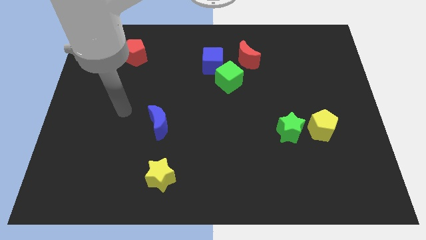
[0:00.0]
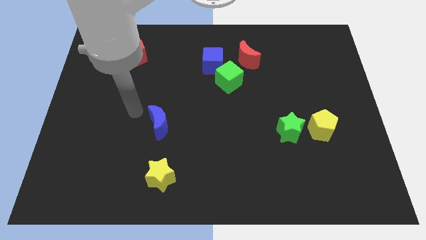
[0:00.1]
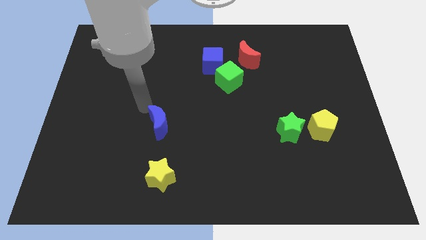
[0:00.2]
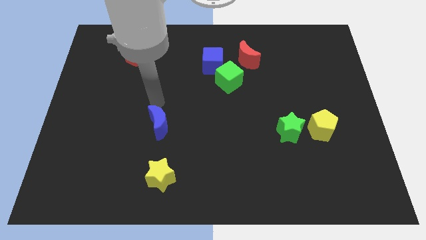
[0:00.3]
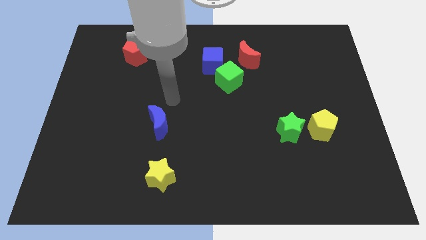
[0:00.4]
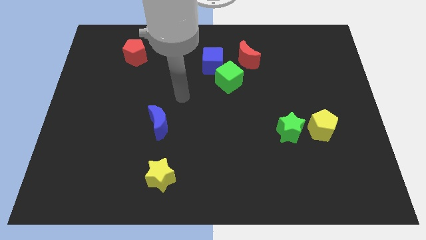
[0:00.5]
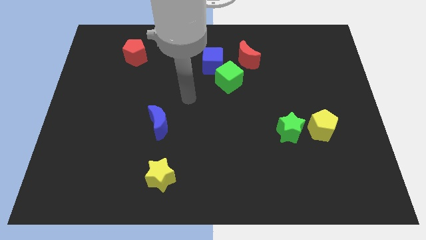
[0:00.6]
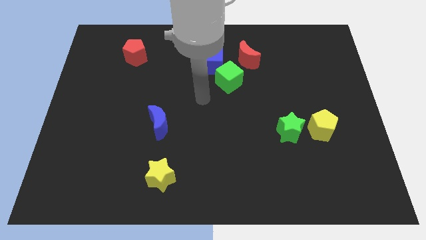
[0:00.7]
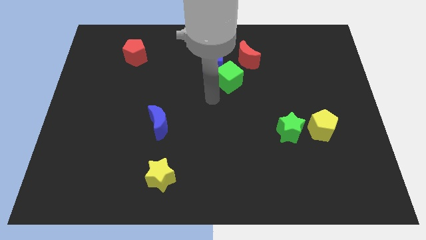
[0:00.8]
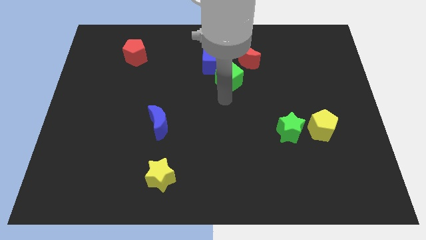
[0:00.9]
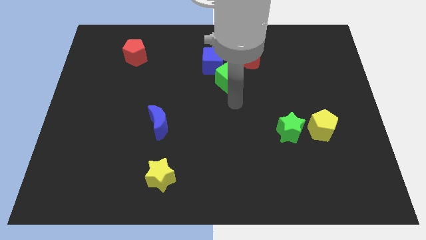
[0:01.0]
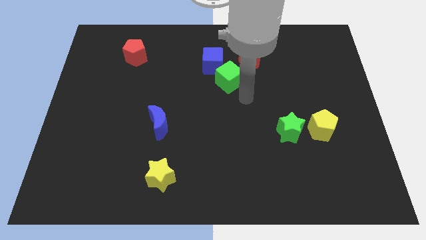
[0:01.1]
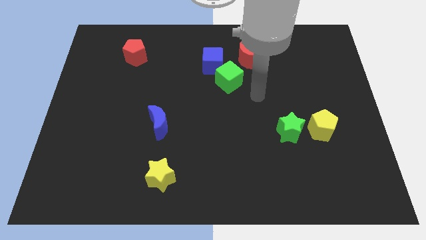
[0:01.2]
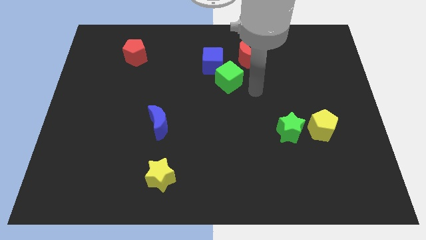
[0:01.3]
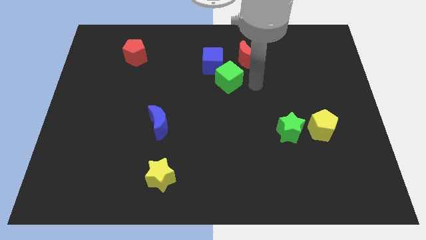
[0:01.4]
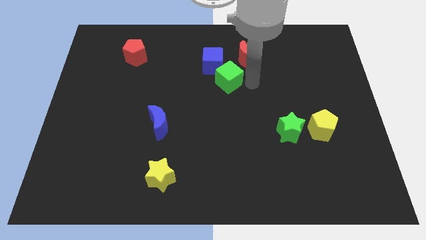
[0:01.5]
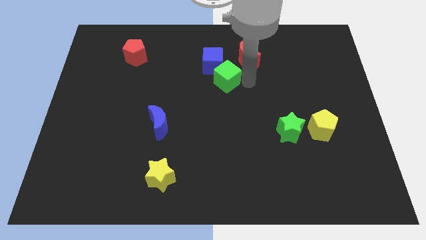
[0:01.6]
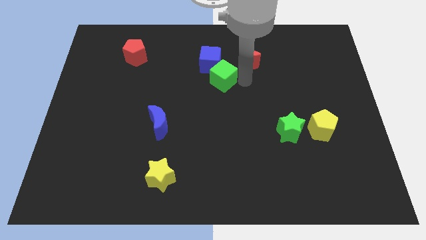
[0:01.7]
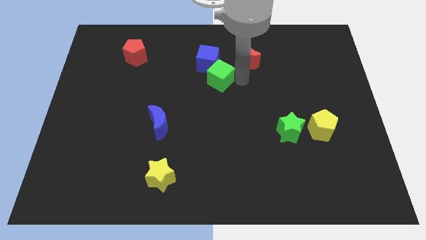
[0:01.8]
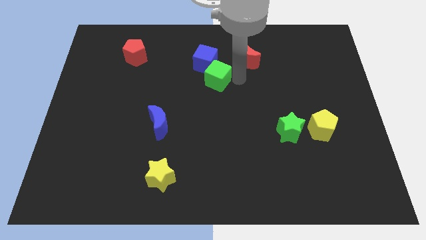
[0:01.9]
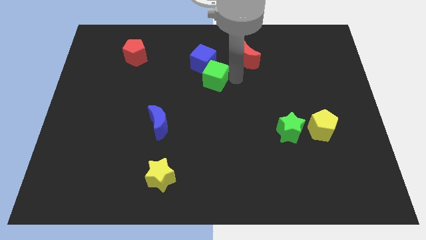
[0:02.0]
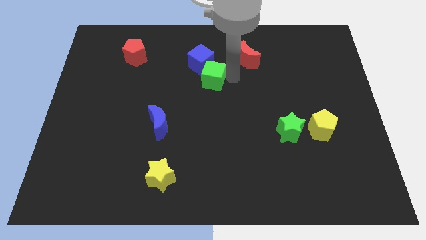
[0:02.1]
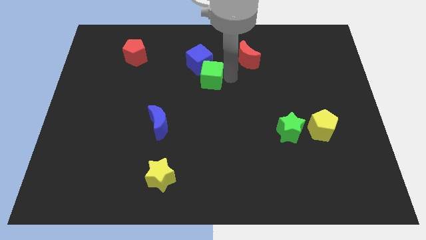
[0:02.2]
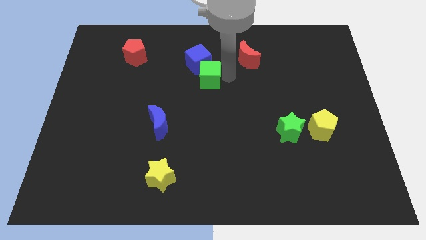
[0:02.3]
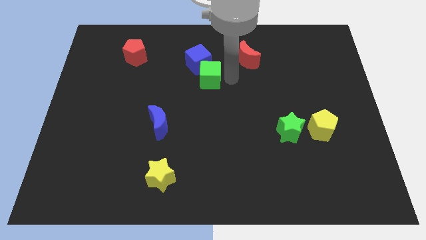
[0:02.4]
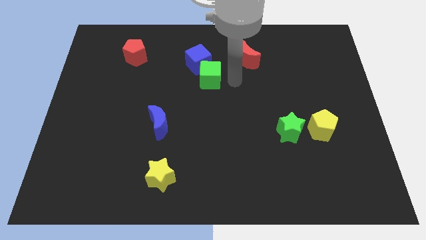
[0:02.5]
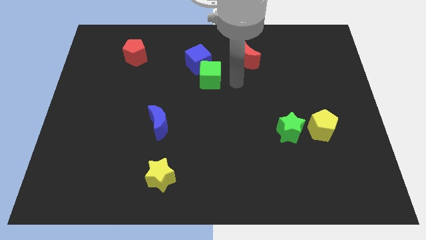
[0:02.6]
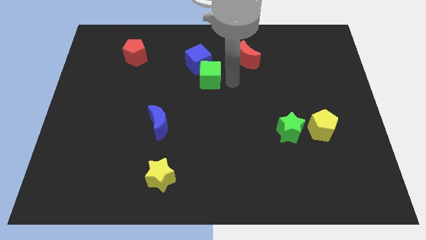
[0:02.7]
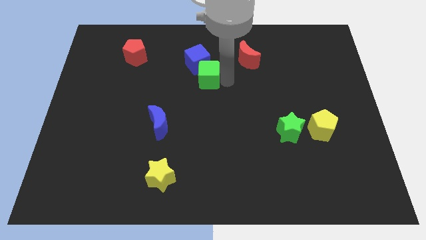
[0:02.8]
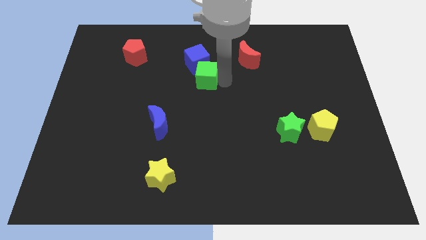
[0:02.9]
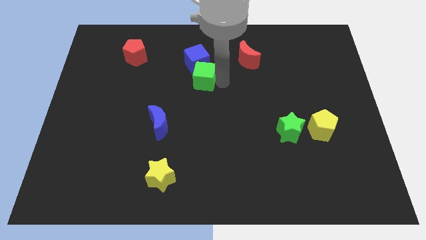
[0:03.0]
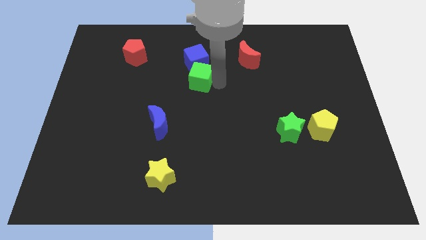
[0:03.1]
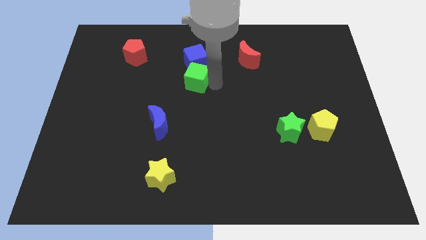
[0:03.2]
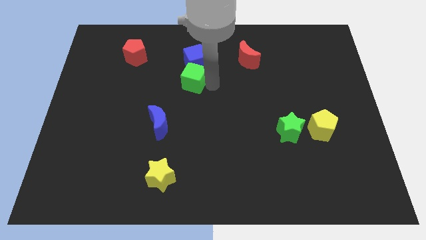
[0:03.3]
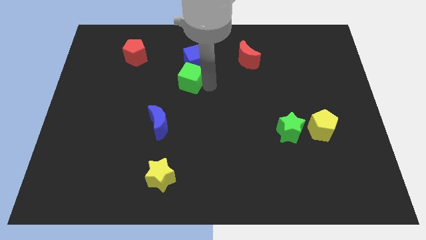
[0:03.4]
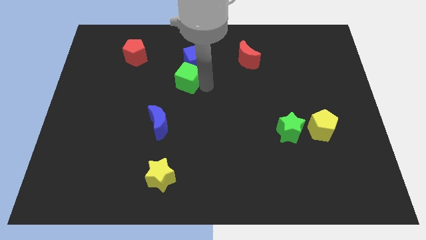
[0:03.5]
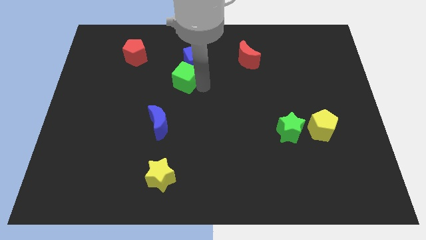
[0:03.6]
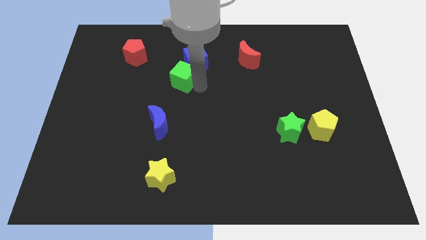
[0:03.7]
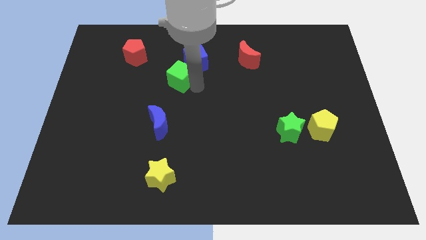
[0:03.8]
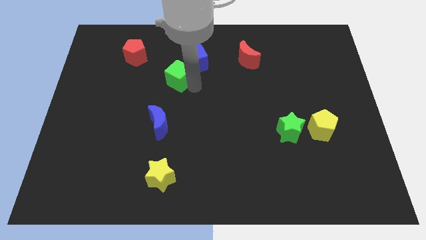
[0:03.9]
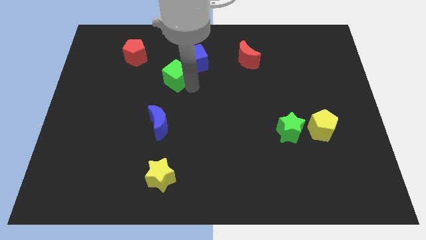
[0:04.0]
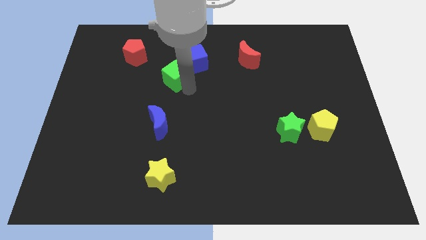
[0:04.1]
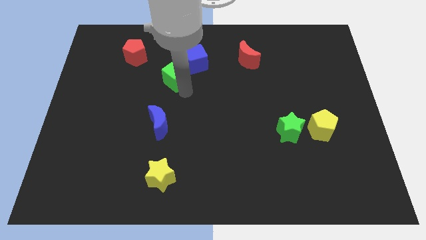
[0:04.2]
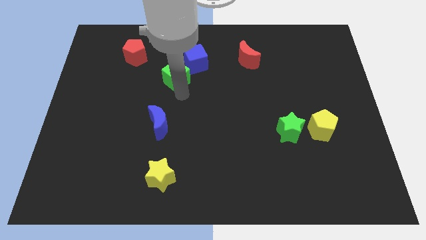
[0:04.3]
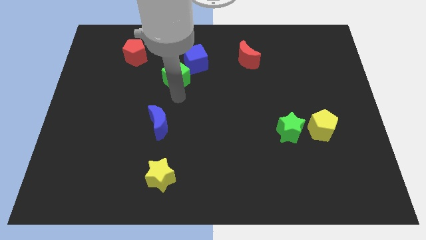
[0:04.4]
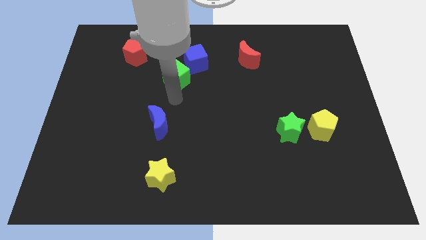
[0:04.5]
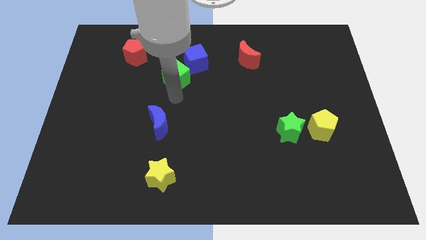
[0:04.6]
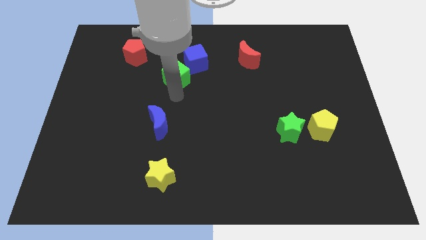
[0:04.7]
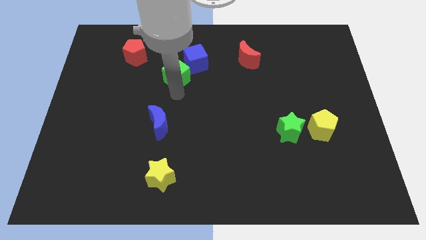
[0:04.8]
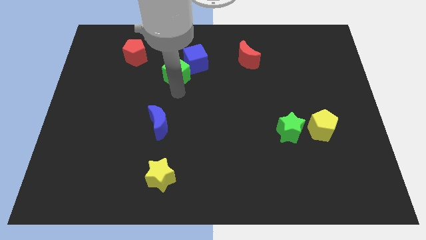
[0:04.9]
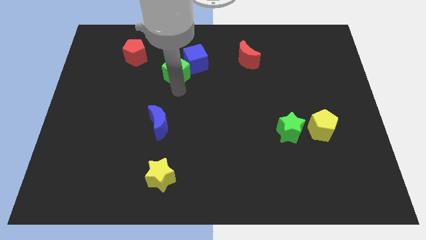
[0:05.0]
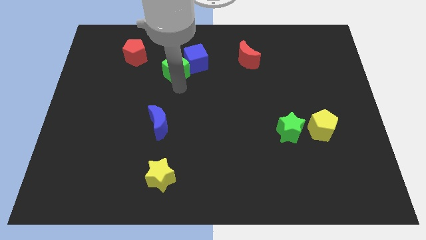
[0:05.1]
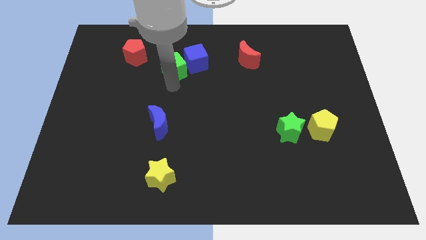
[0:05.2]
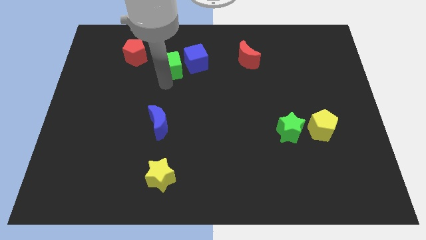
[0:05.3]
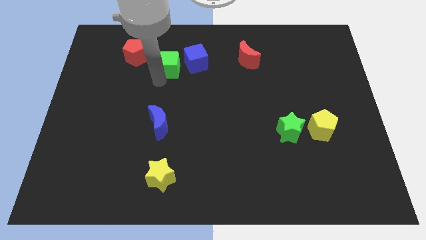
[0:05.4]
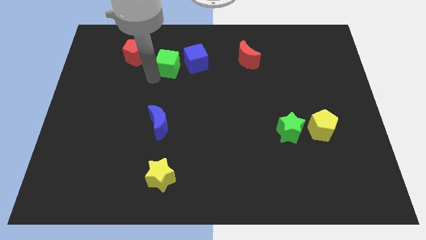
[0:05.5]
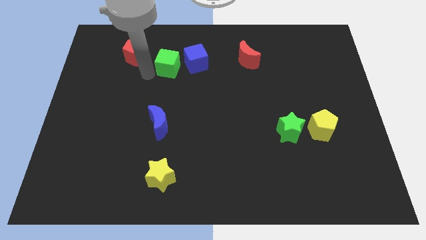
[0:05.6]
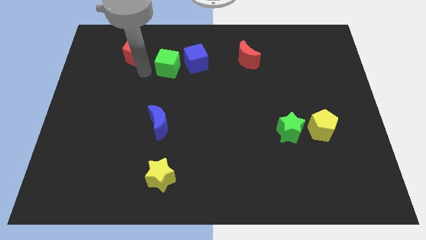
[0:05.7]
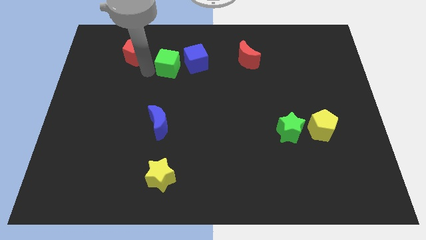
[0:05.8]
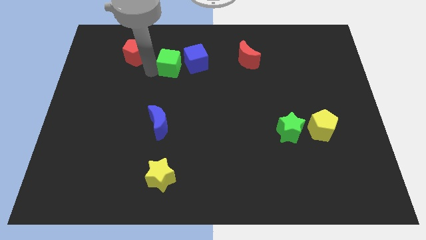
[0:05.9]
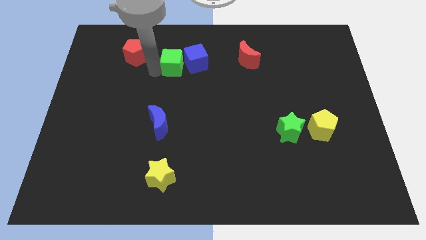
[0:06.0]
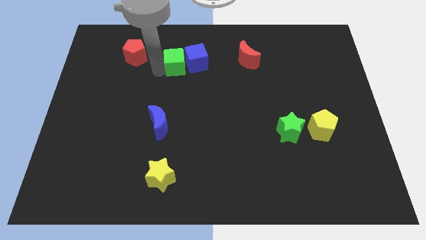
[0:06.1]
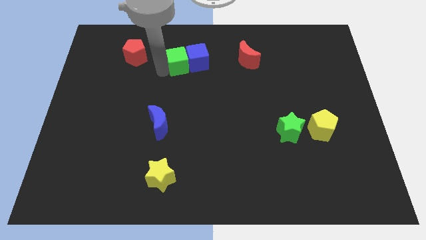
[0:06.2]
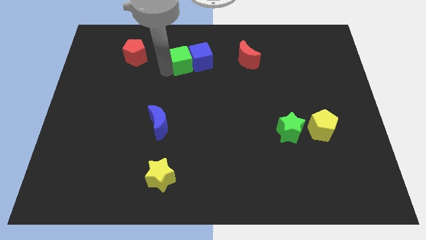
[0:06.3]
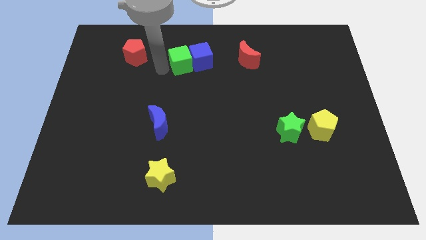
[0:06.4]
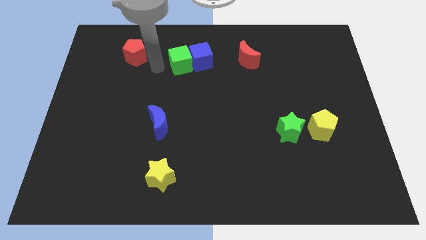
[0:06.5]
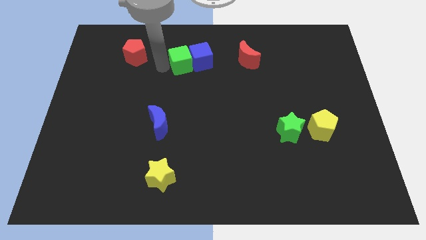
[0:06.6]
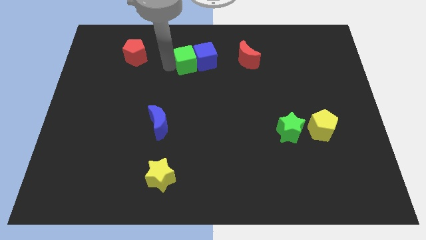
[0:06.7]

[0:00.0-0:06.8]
move the green cube to the left side of the red moon
